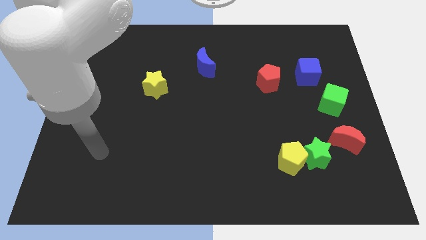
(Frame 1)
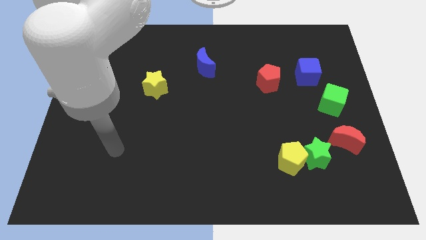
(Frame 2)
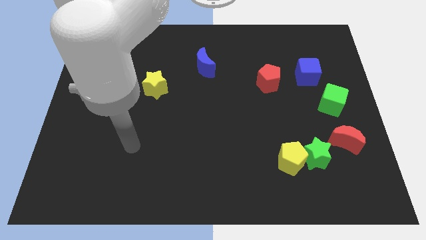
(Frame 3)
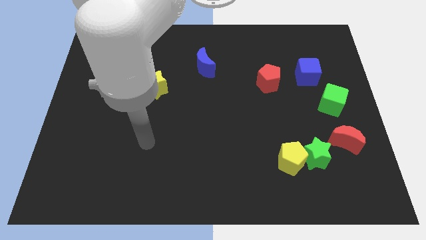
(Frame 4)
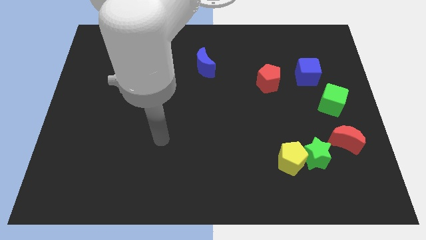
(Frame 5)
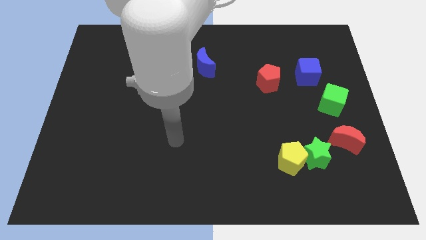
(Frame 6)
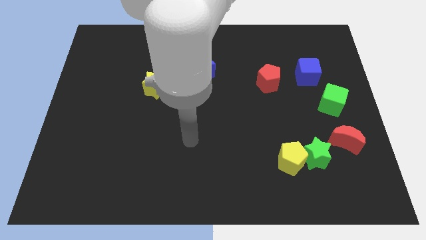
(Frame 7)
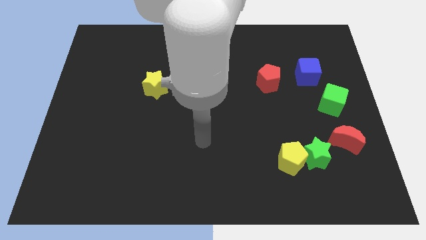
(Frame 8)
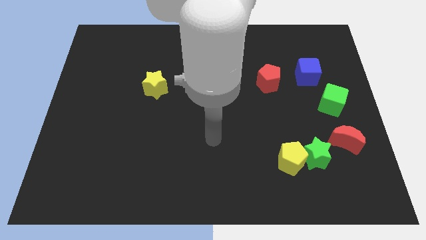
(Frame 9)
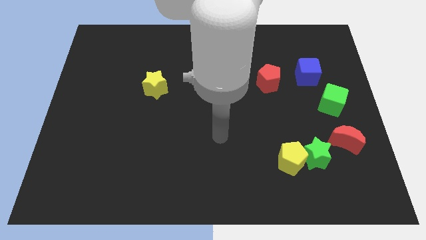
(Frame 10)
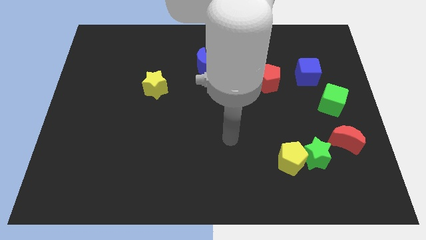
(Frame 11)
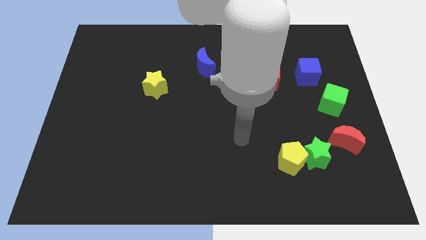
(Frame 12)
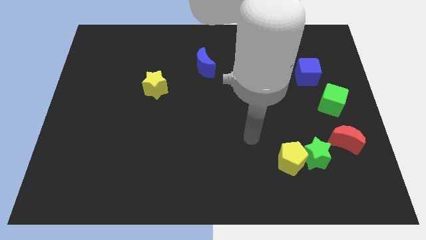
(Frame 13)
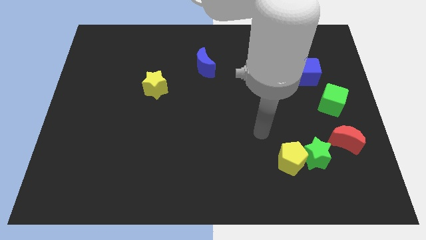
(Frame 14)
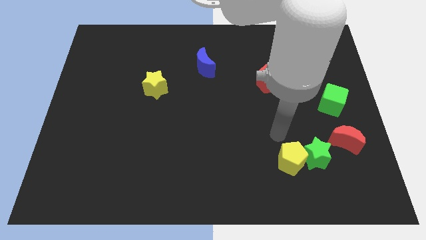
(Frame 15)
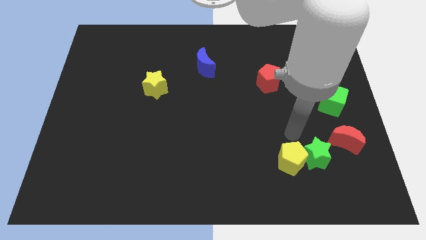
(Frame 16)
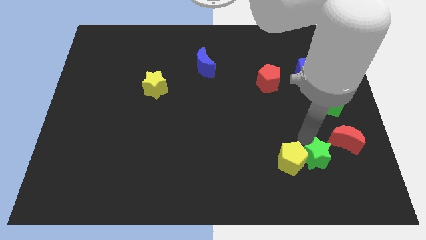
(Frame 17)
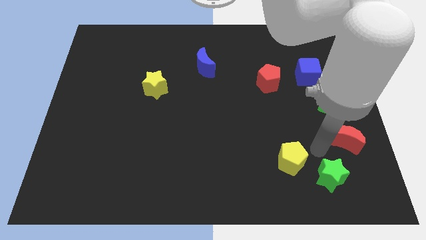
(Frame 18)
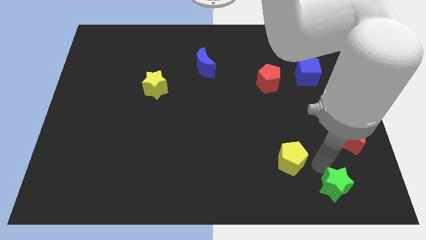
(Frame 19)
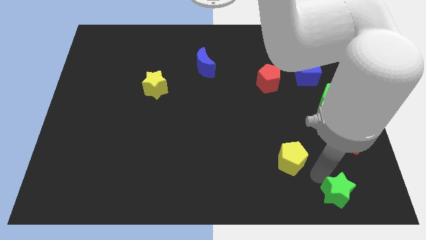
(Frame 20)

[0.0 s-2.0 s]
separate the yellow pentagon from the green star

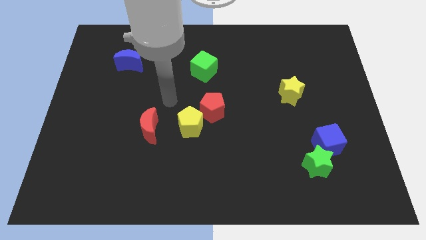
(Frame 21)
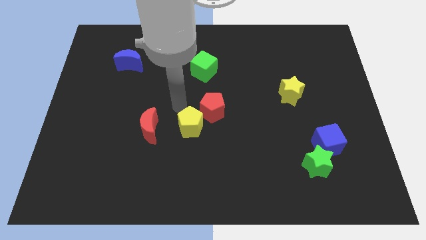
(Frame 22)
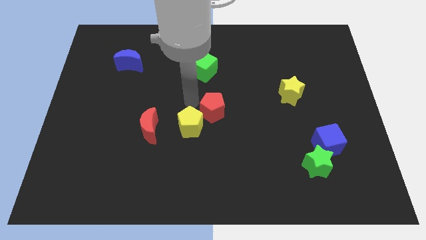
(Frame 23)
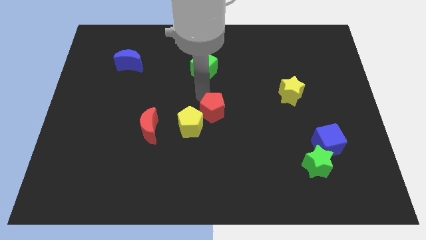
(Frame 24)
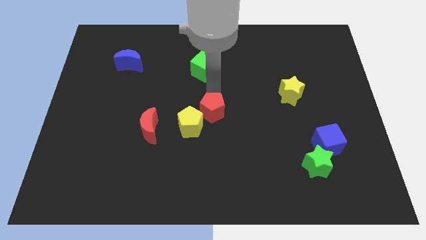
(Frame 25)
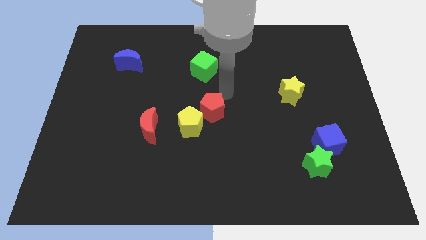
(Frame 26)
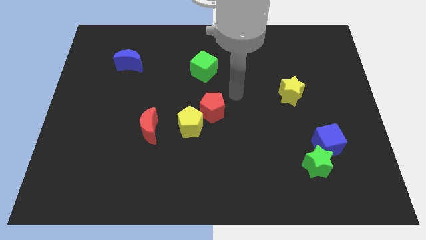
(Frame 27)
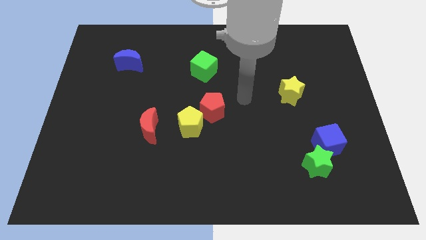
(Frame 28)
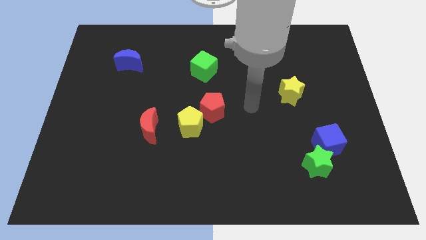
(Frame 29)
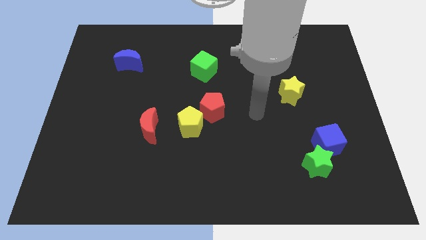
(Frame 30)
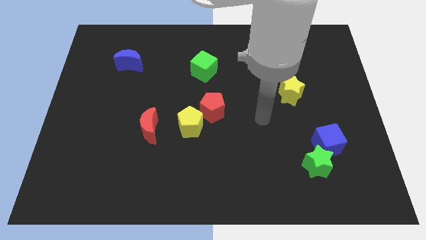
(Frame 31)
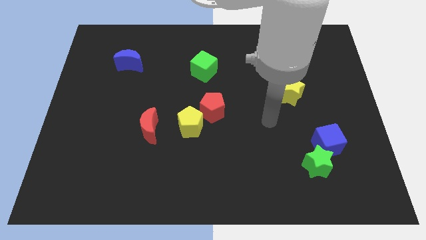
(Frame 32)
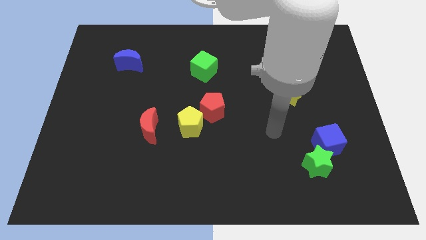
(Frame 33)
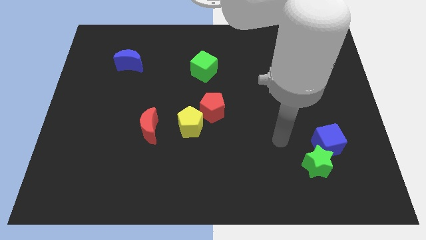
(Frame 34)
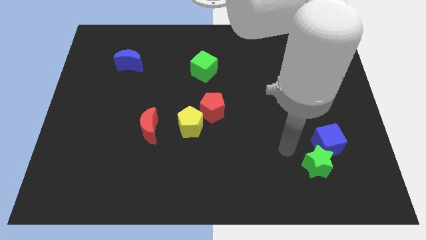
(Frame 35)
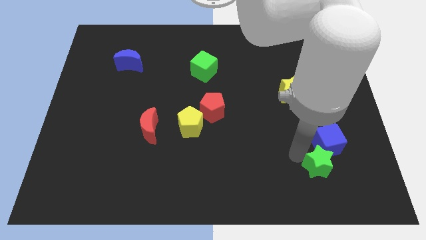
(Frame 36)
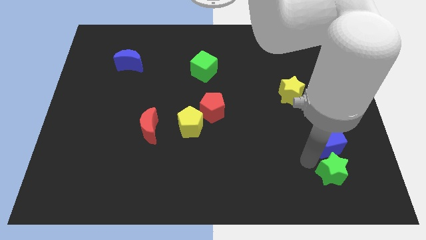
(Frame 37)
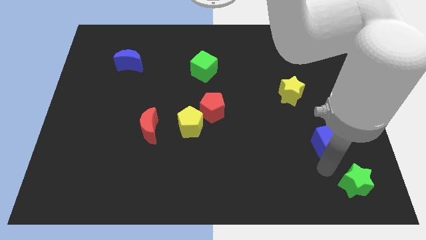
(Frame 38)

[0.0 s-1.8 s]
pull the blue cube apart from the green star

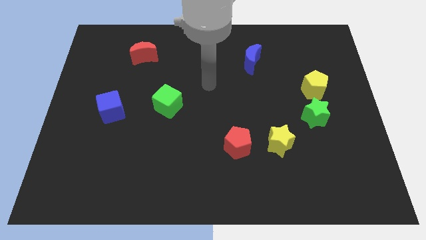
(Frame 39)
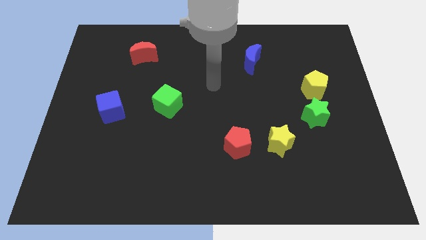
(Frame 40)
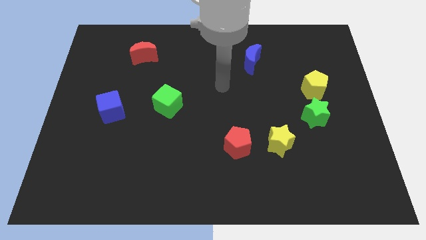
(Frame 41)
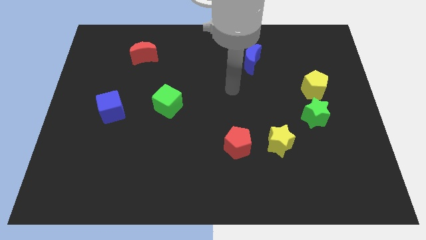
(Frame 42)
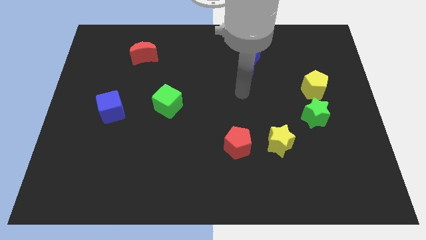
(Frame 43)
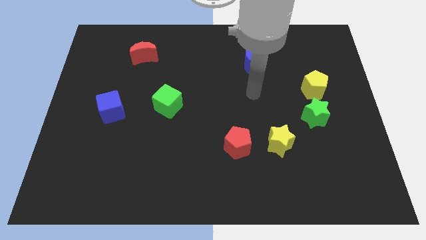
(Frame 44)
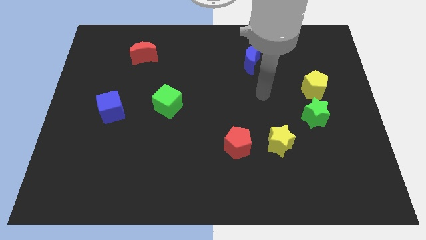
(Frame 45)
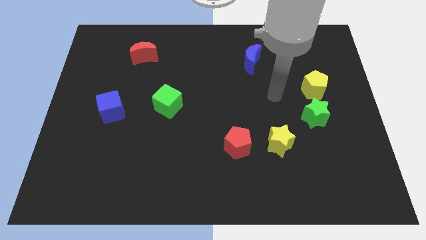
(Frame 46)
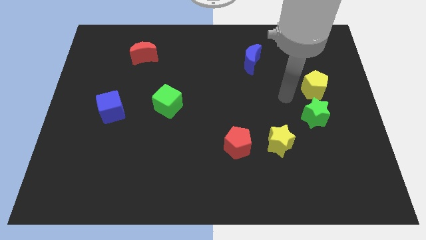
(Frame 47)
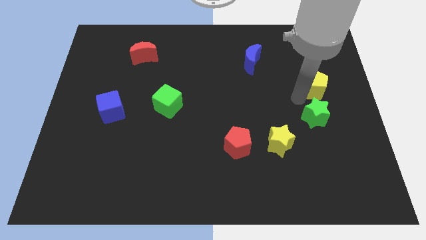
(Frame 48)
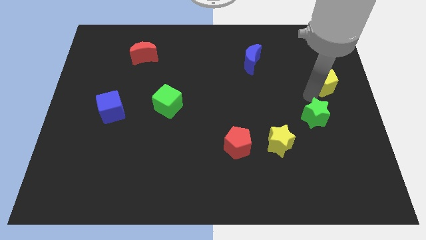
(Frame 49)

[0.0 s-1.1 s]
pull the green star apart from the yellow pentagon

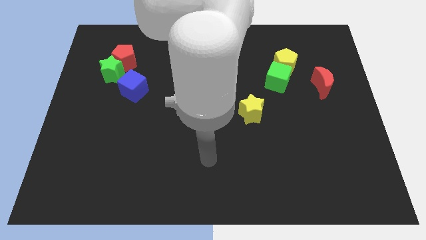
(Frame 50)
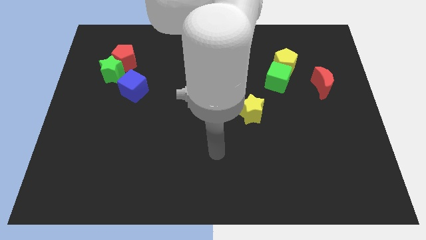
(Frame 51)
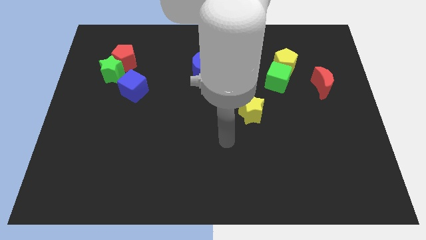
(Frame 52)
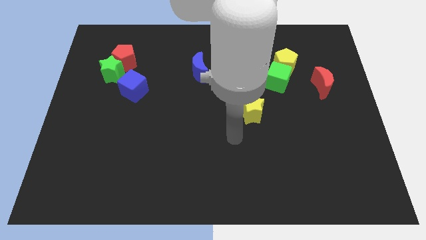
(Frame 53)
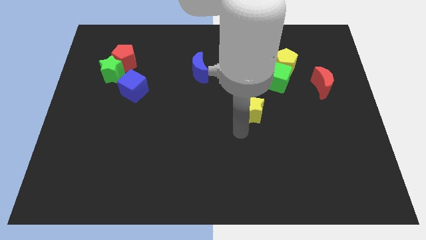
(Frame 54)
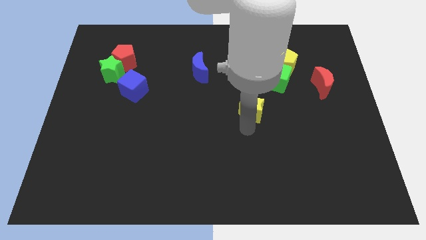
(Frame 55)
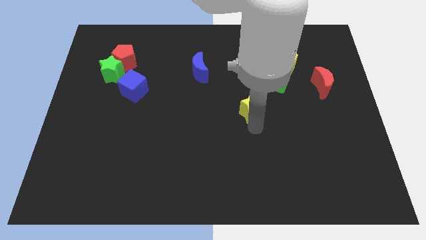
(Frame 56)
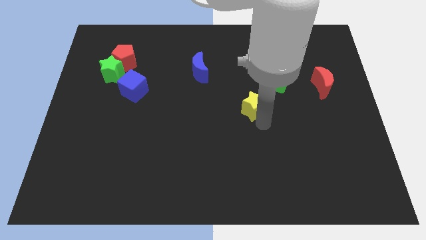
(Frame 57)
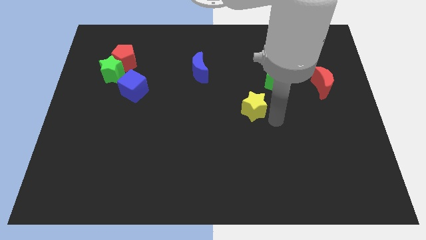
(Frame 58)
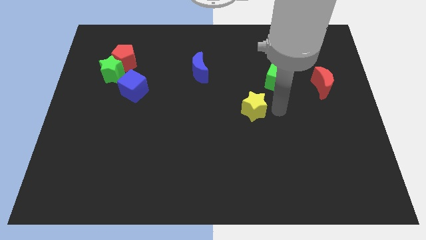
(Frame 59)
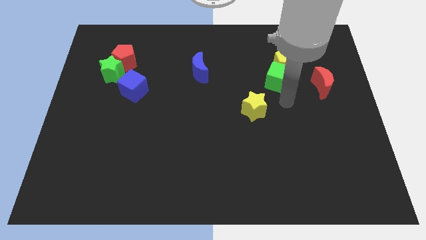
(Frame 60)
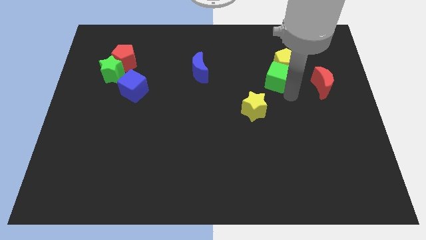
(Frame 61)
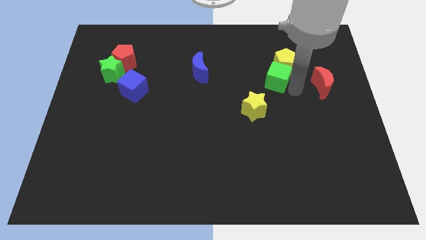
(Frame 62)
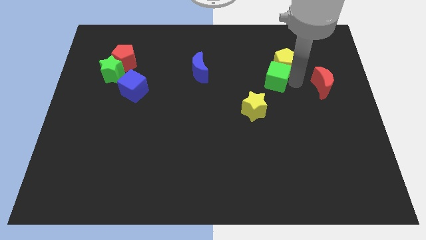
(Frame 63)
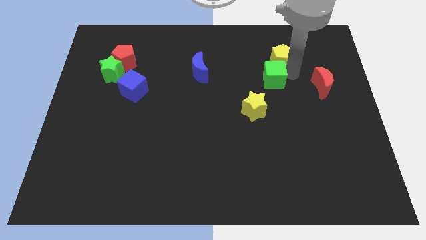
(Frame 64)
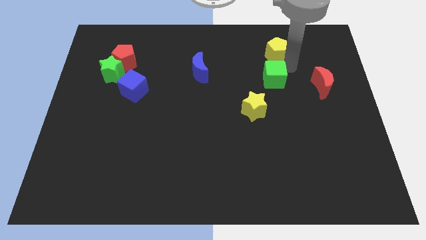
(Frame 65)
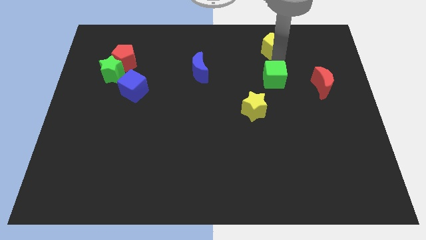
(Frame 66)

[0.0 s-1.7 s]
move the green cube away from the yellow pentagon

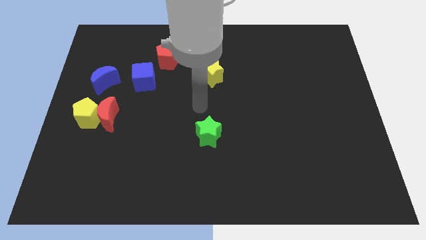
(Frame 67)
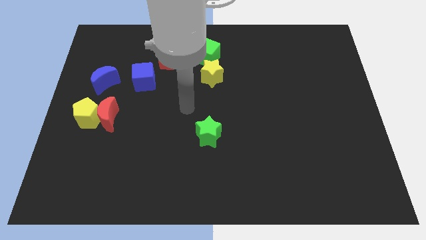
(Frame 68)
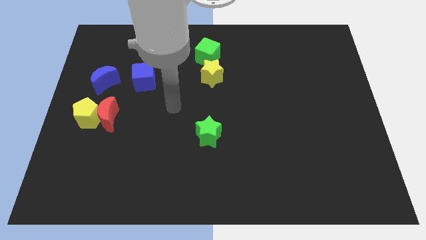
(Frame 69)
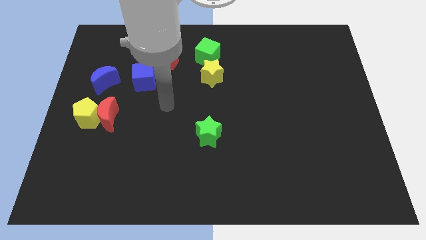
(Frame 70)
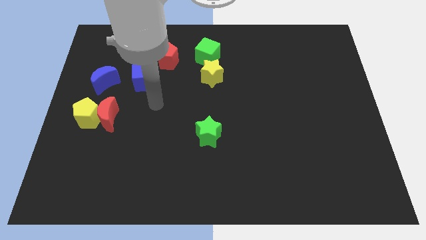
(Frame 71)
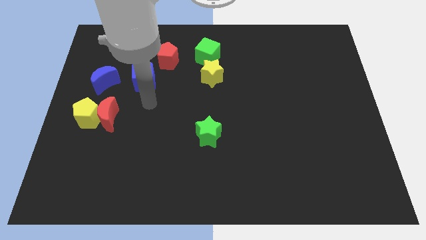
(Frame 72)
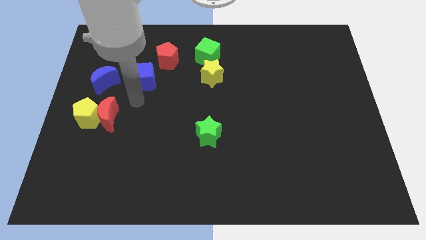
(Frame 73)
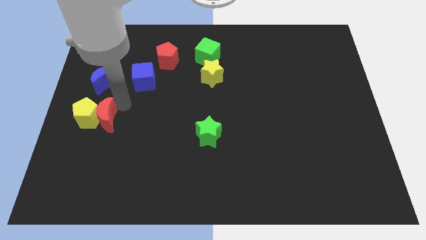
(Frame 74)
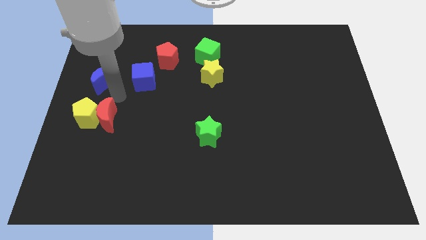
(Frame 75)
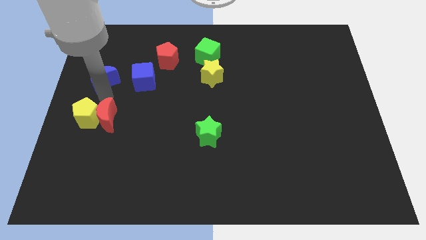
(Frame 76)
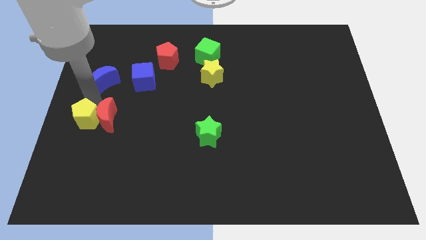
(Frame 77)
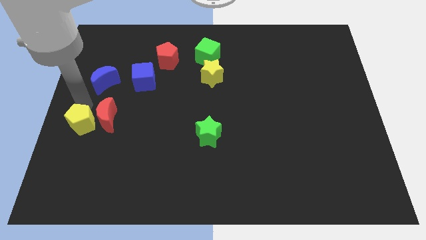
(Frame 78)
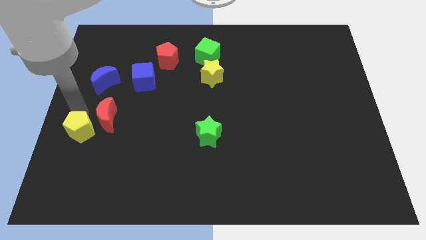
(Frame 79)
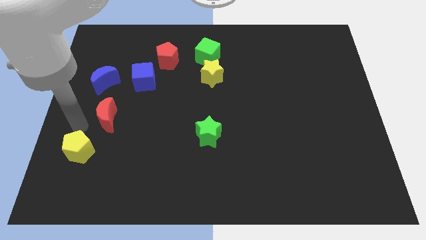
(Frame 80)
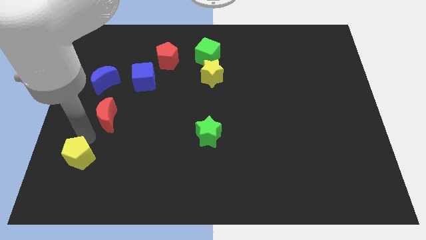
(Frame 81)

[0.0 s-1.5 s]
move the red moon away from the yellow pentagon

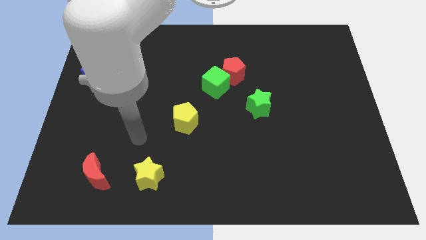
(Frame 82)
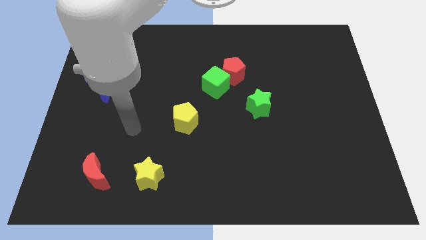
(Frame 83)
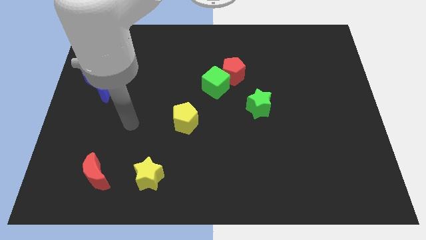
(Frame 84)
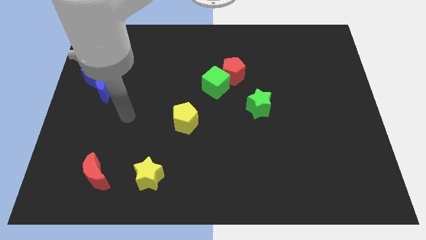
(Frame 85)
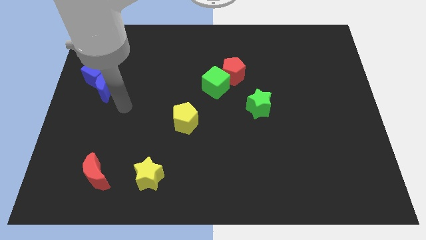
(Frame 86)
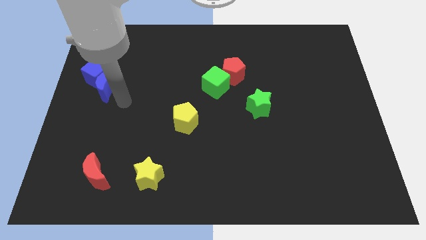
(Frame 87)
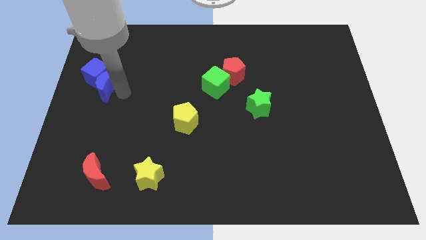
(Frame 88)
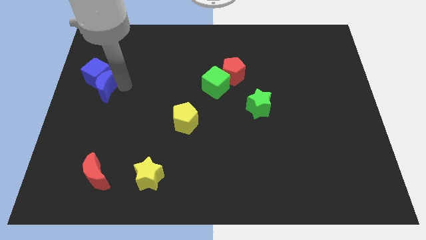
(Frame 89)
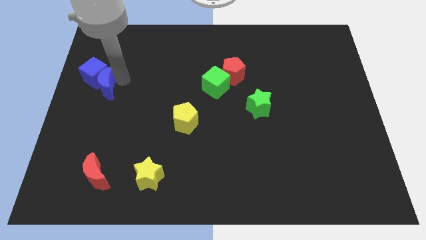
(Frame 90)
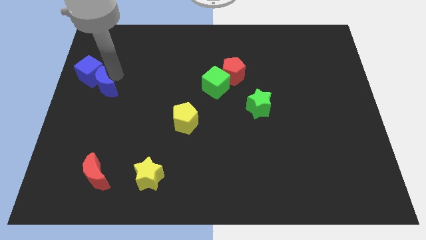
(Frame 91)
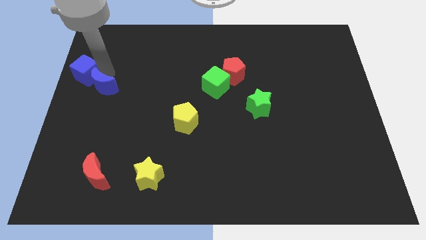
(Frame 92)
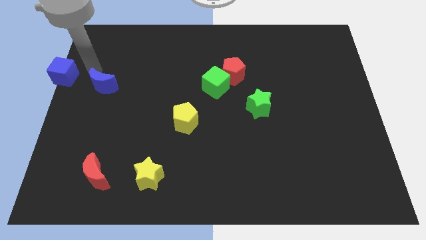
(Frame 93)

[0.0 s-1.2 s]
pull the blue moon apart from the blue cube
